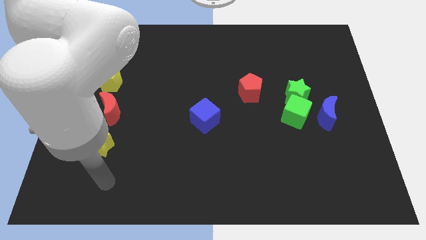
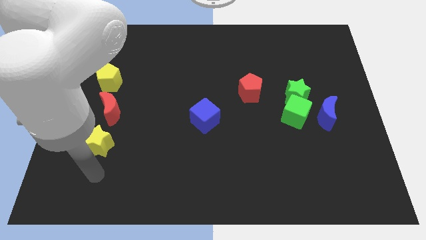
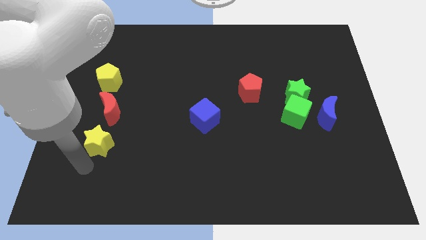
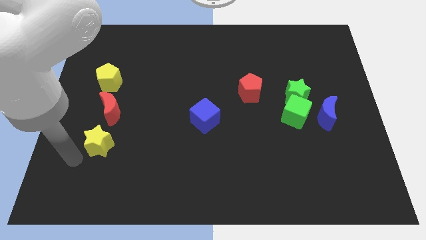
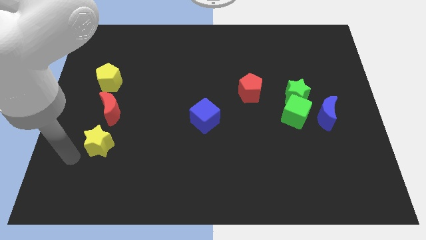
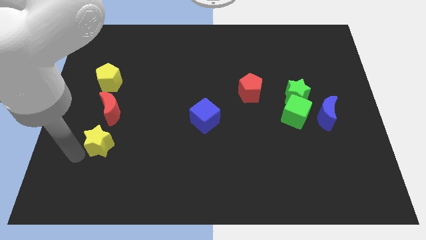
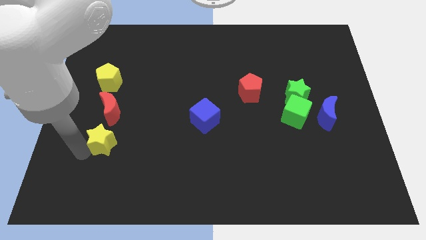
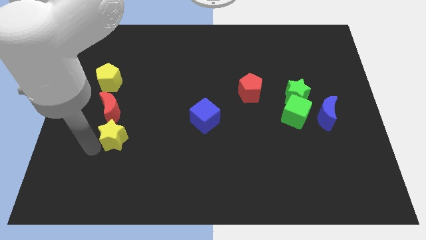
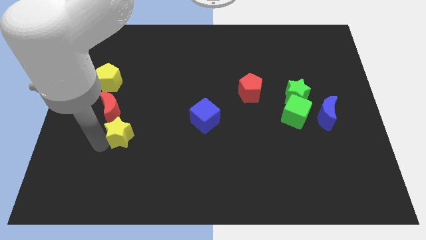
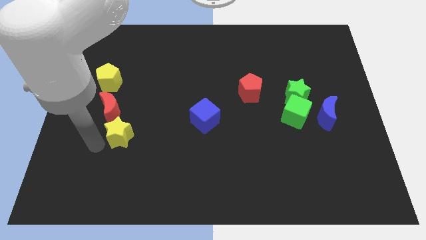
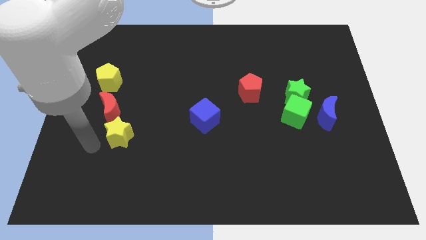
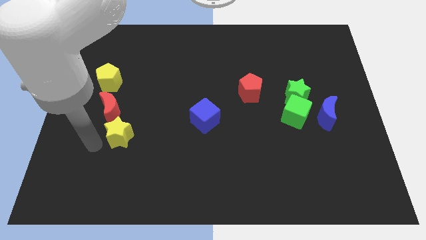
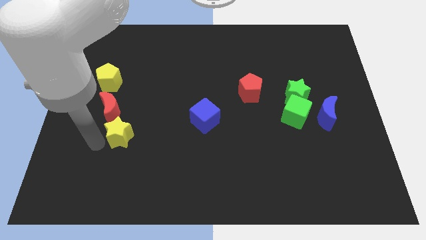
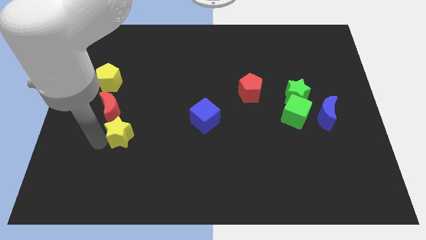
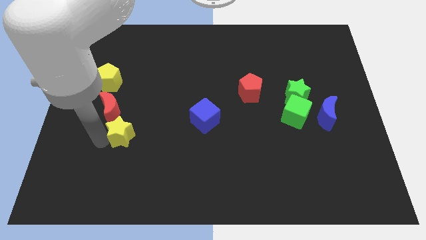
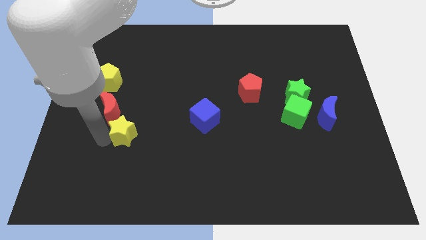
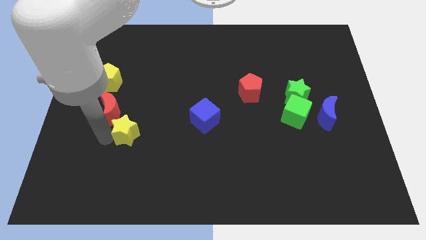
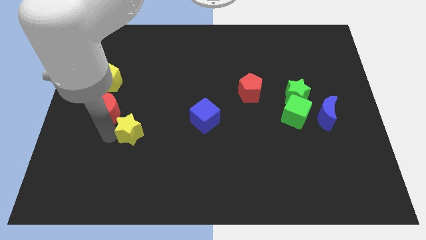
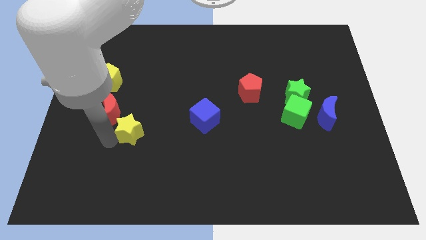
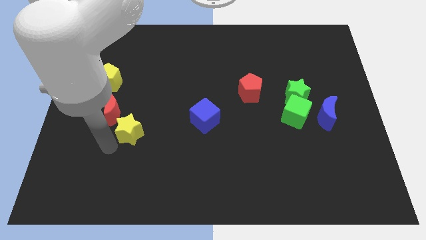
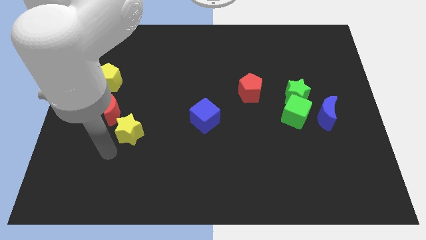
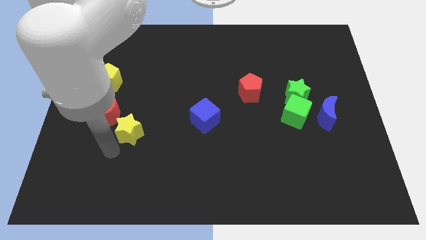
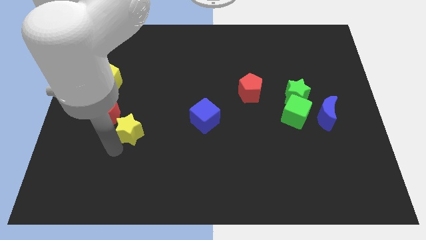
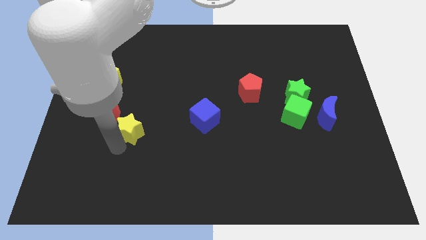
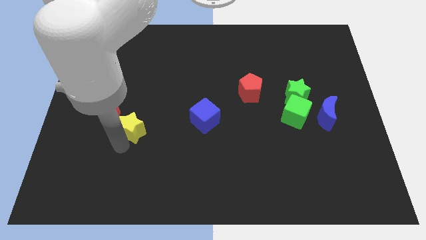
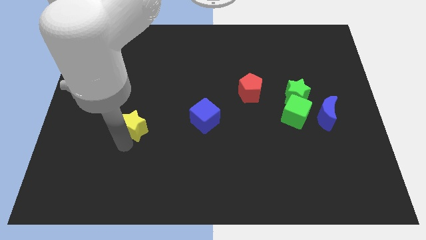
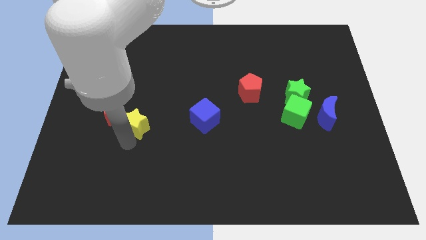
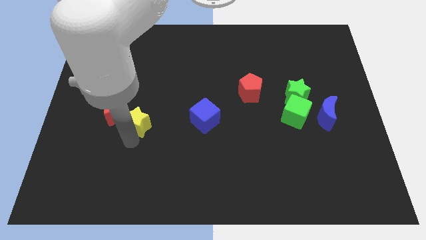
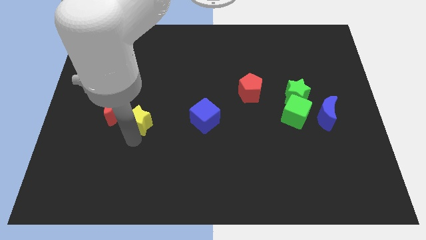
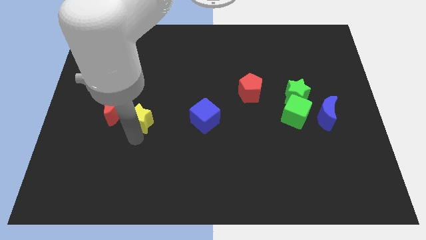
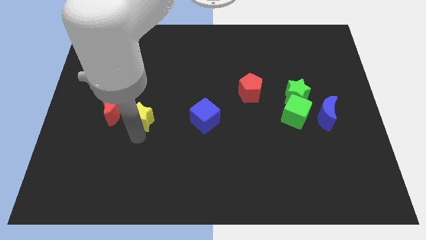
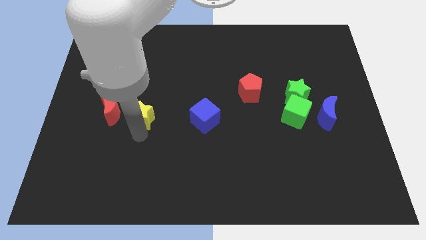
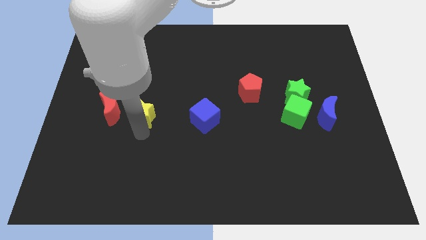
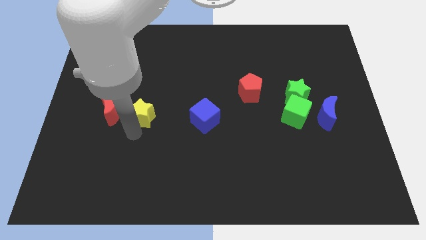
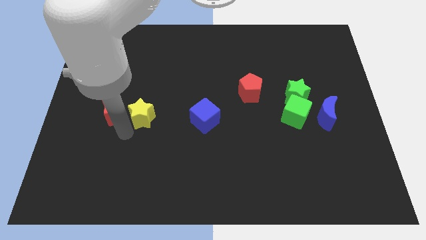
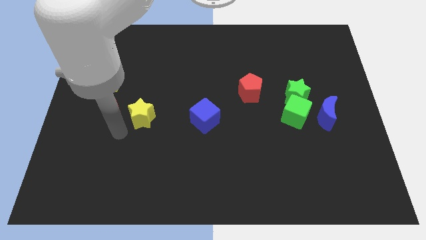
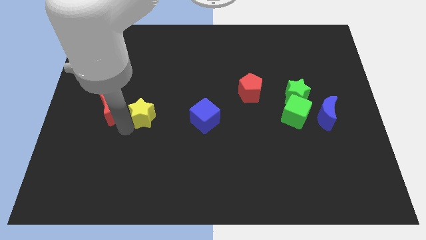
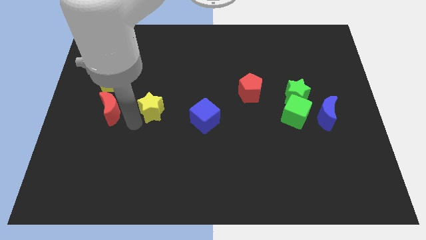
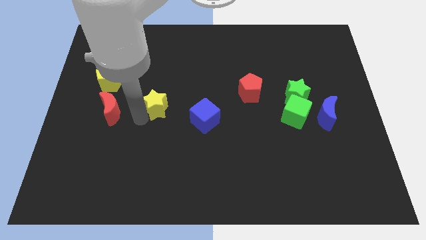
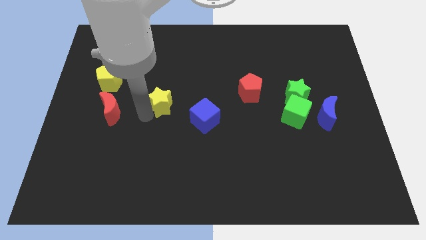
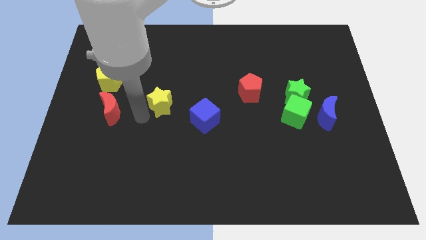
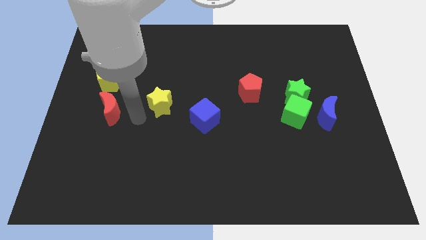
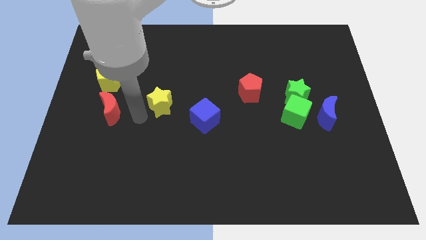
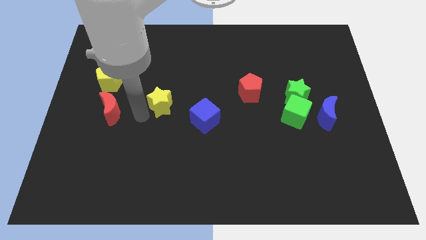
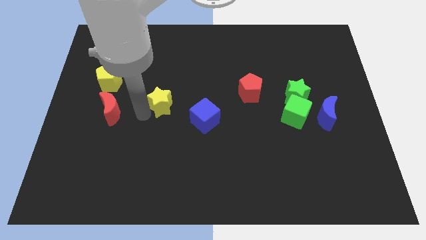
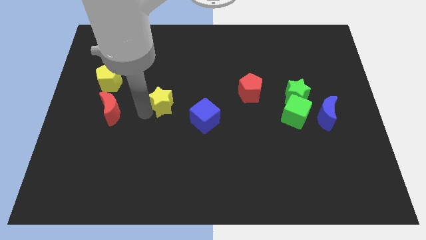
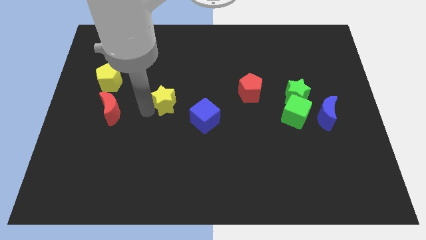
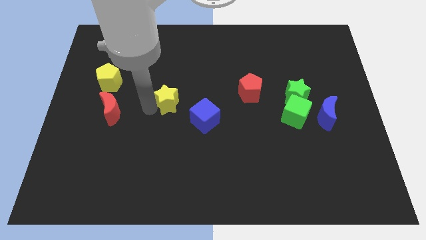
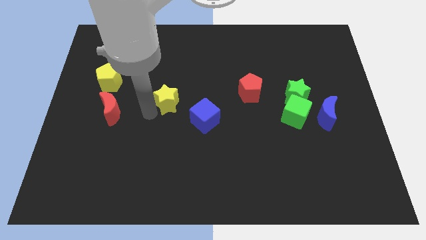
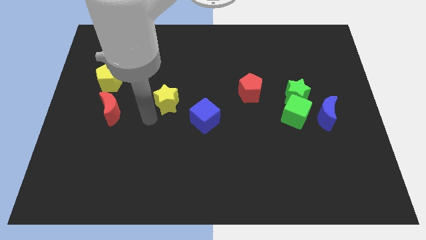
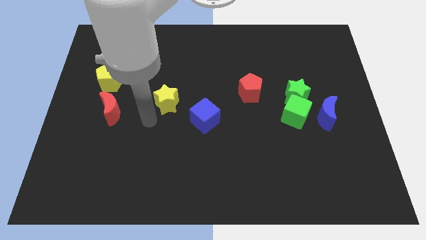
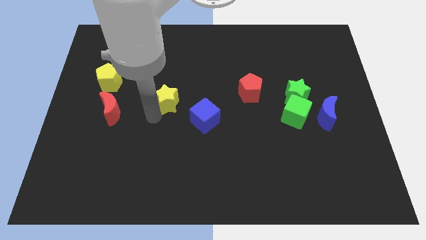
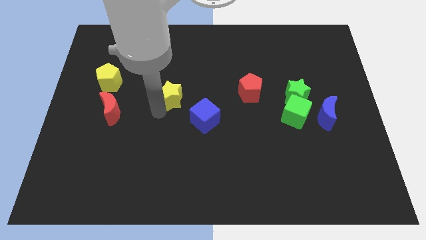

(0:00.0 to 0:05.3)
slide the yellow star diagonally up and right

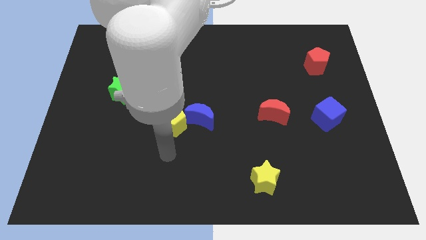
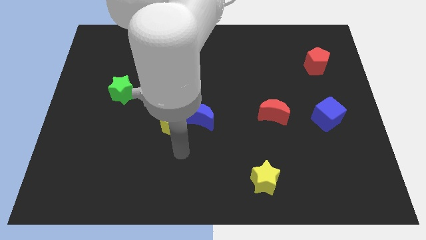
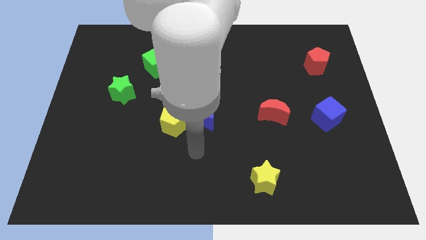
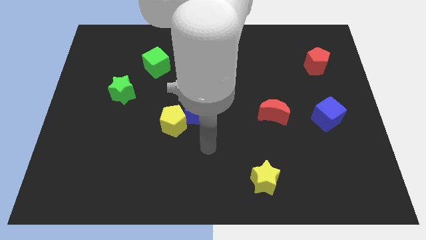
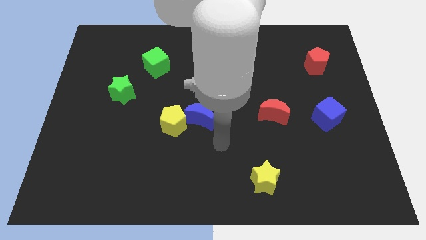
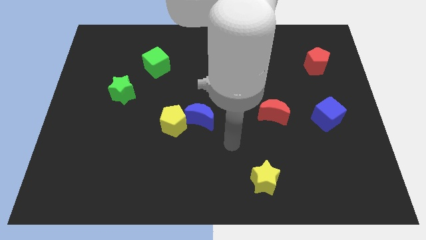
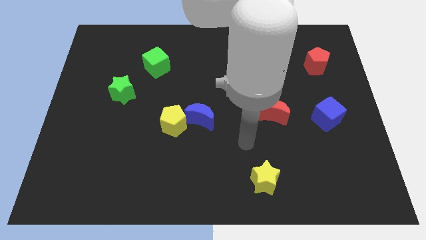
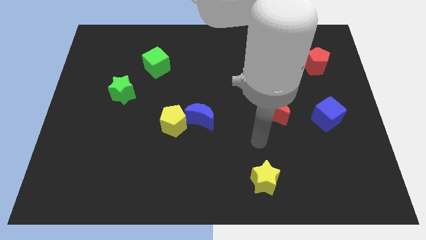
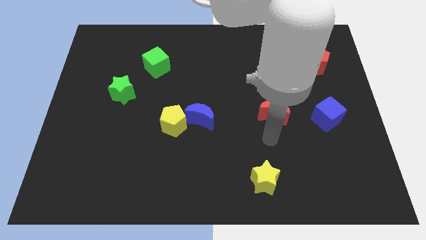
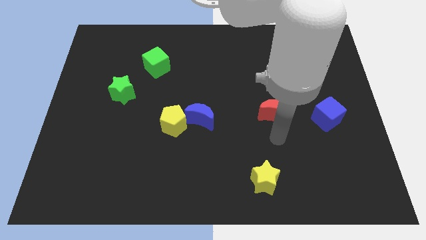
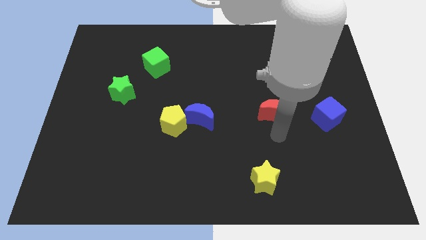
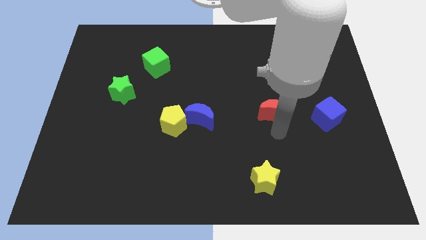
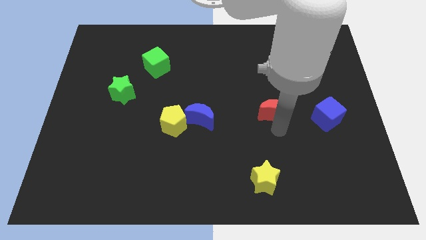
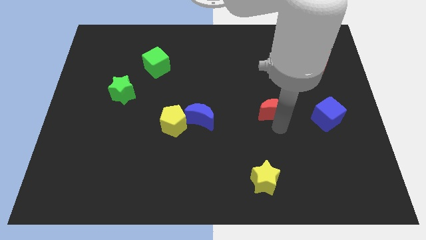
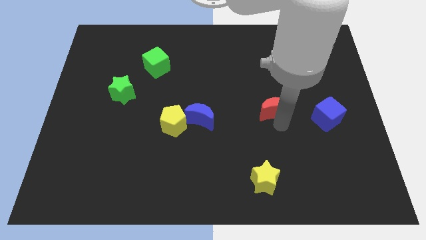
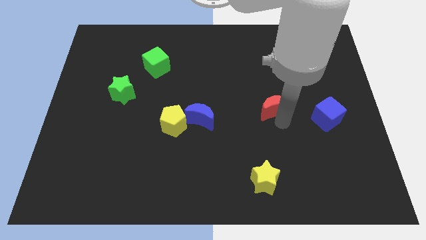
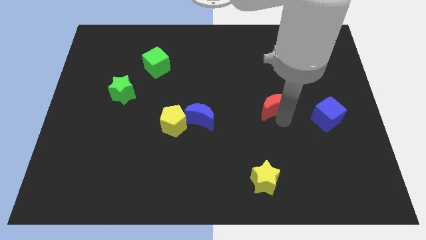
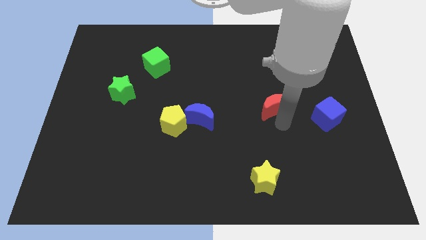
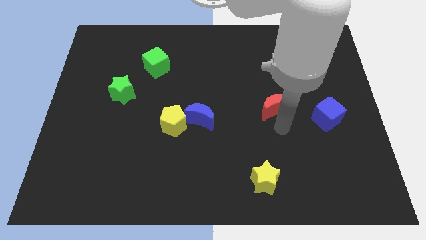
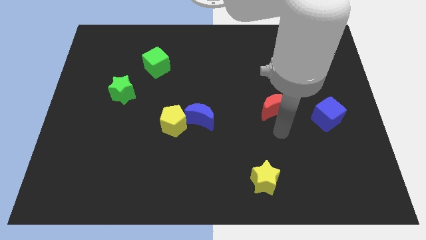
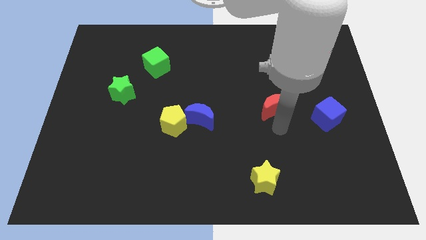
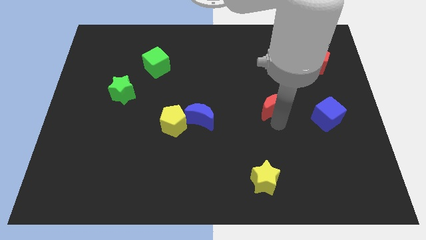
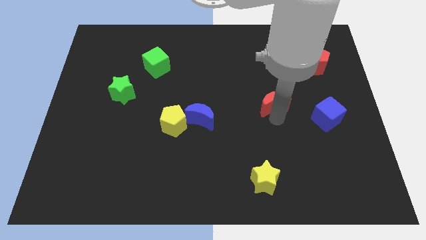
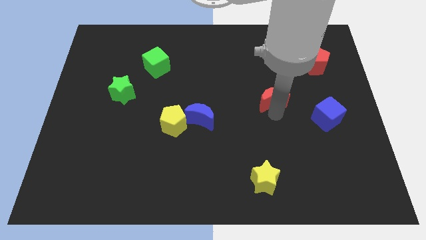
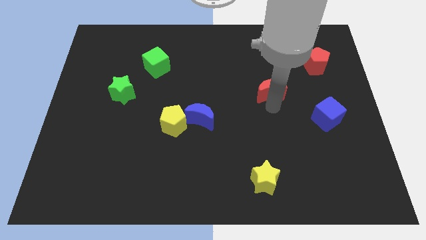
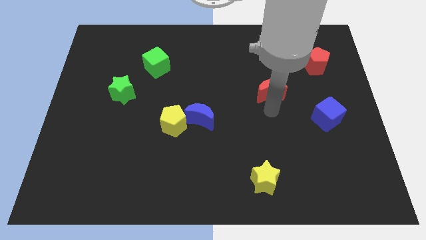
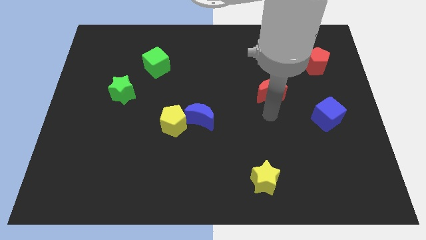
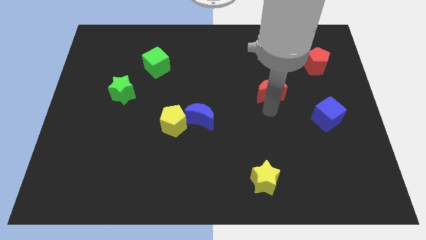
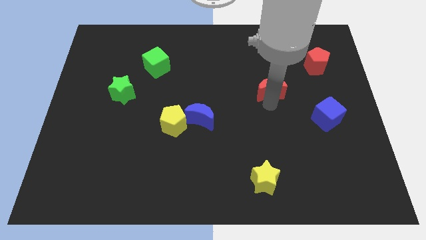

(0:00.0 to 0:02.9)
slightly move the red moon upwards
